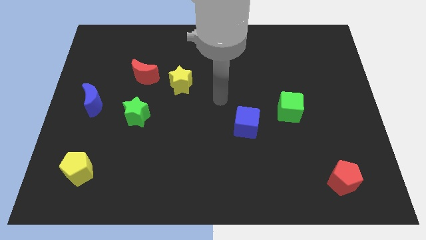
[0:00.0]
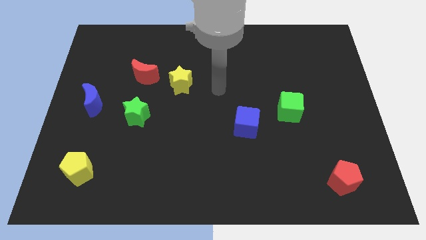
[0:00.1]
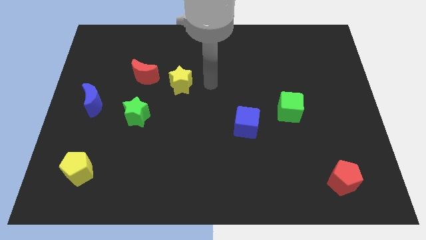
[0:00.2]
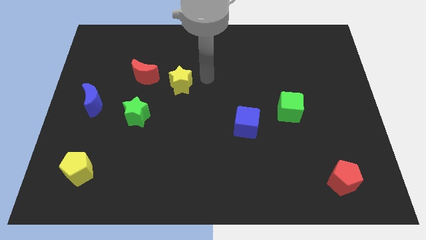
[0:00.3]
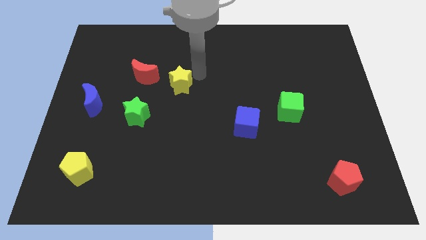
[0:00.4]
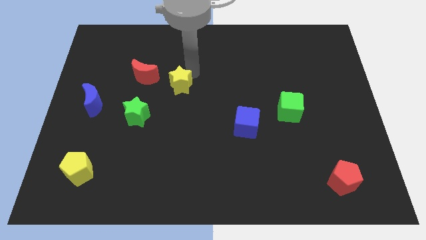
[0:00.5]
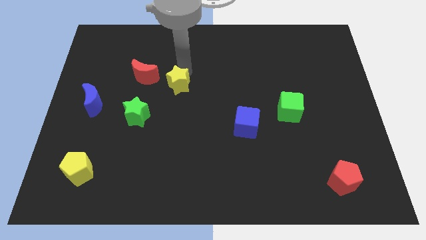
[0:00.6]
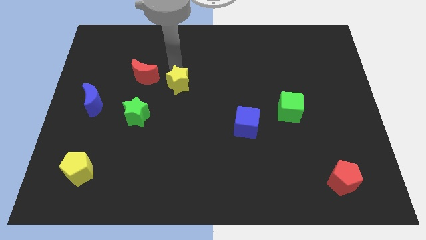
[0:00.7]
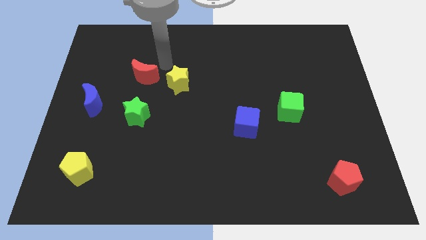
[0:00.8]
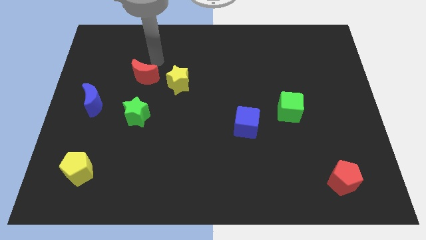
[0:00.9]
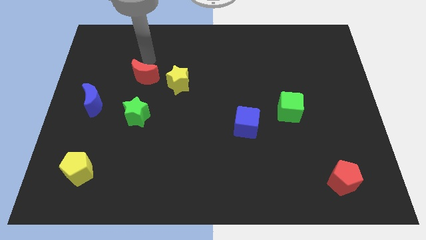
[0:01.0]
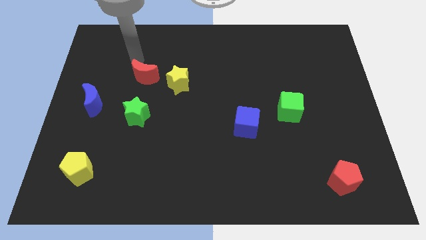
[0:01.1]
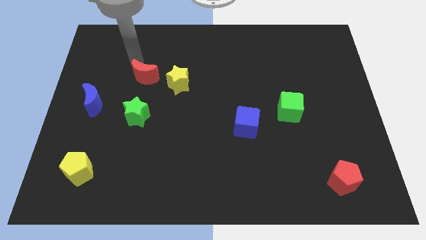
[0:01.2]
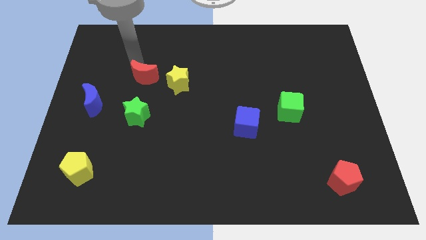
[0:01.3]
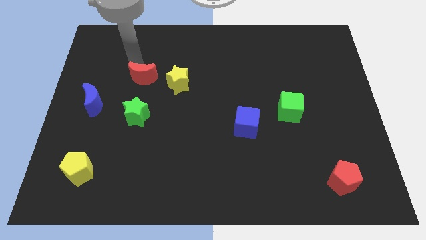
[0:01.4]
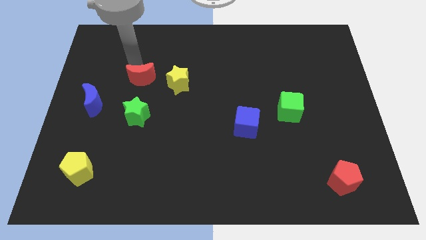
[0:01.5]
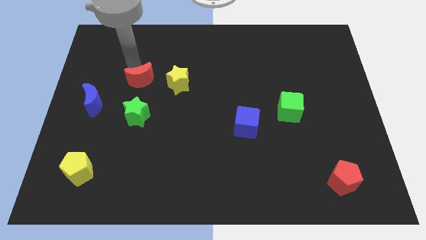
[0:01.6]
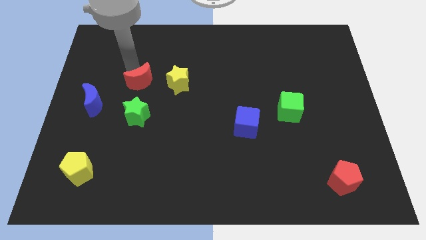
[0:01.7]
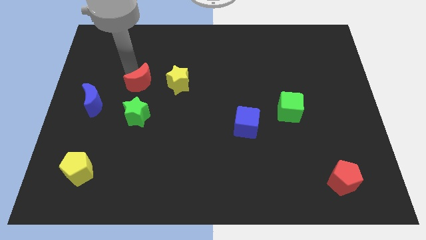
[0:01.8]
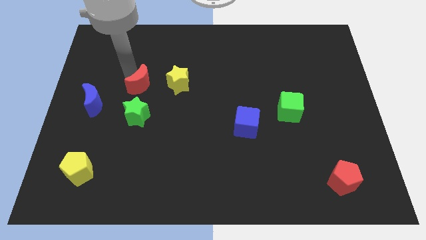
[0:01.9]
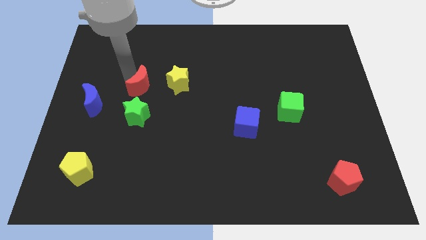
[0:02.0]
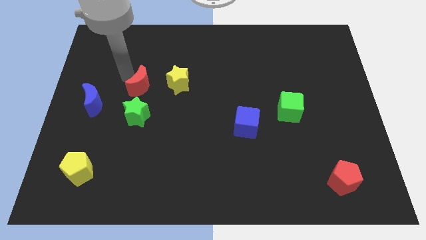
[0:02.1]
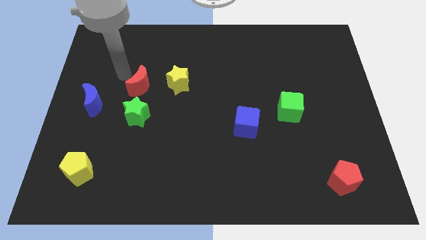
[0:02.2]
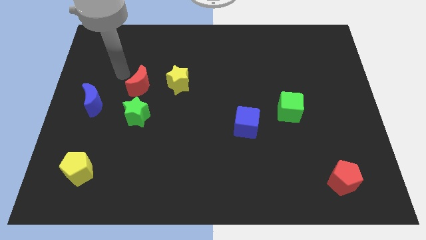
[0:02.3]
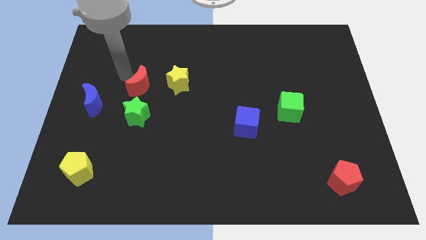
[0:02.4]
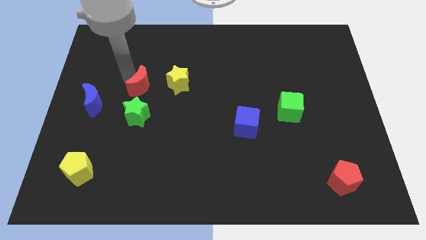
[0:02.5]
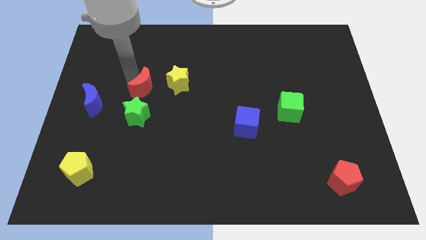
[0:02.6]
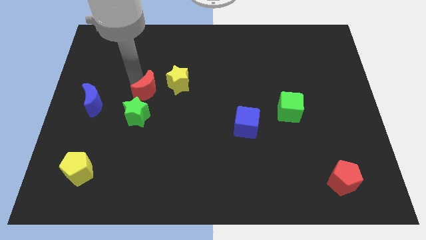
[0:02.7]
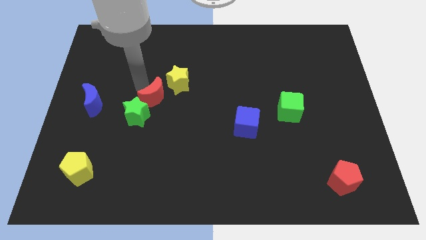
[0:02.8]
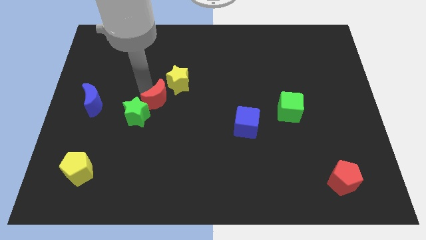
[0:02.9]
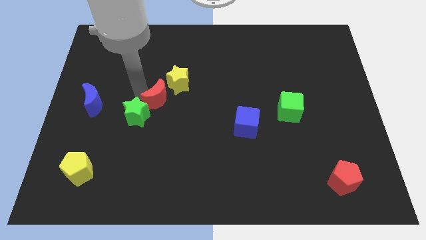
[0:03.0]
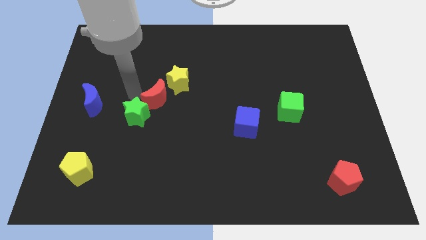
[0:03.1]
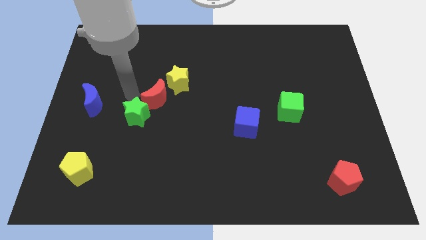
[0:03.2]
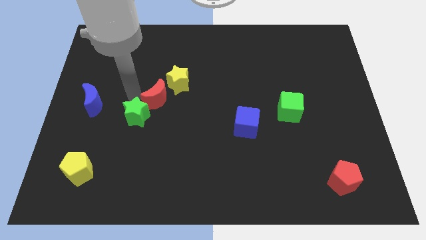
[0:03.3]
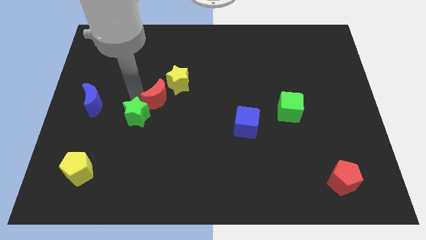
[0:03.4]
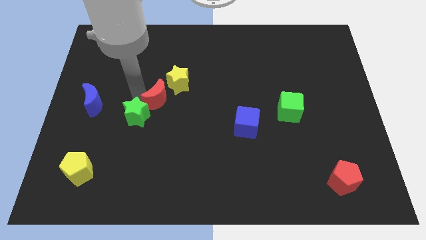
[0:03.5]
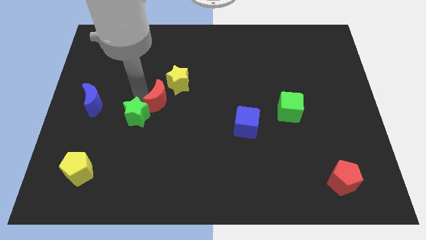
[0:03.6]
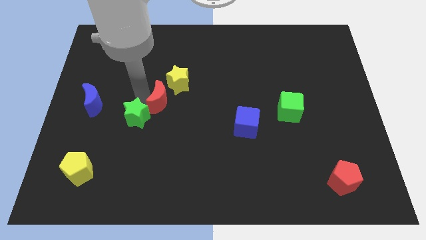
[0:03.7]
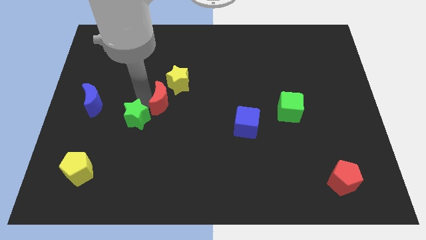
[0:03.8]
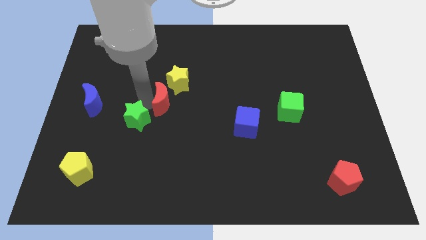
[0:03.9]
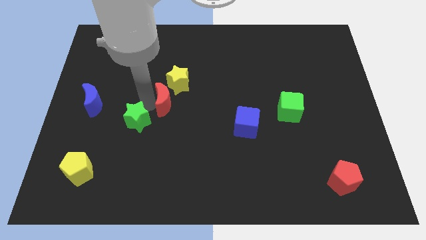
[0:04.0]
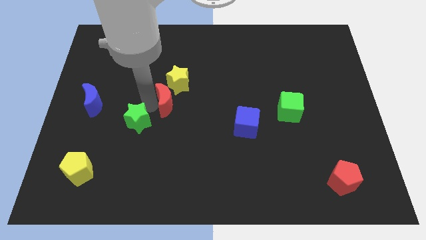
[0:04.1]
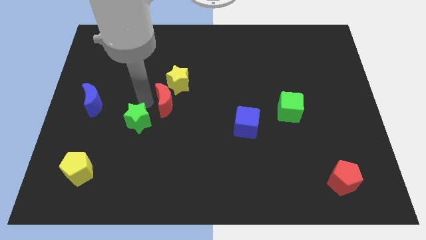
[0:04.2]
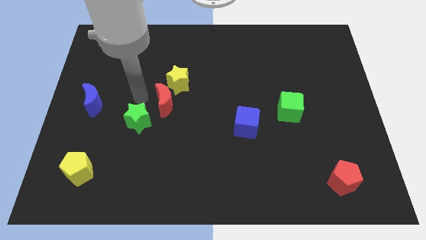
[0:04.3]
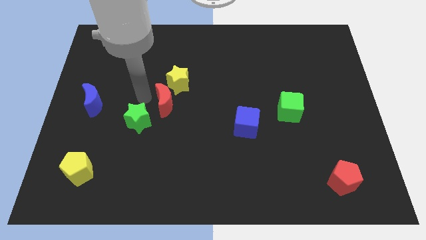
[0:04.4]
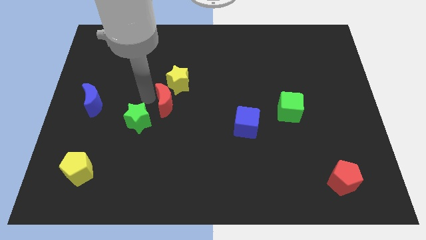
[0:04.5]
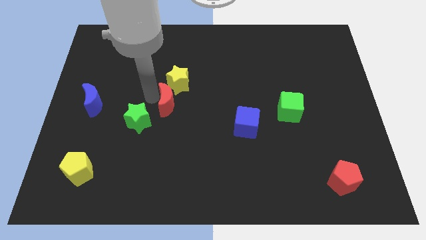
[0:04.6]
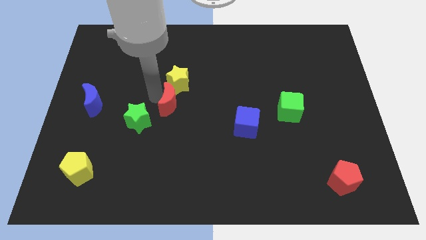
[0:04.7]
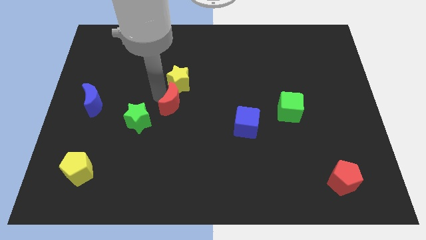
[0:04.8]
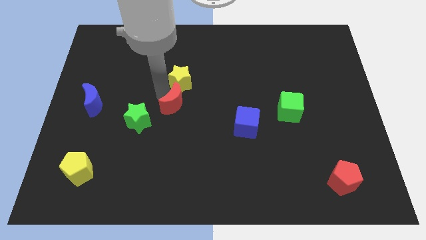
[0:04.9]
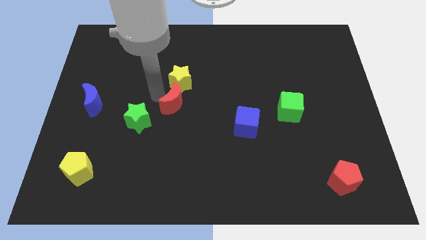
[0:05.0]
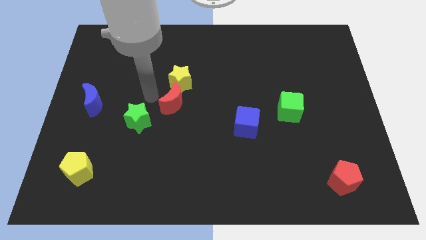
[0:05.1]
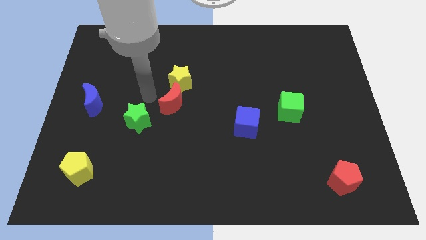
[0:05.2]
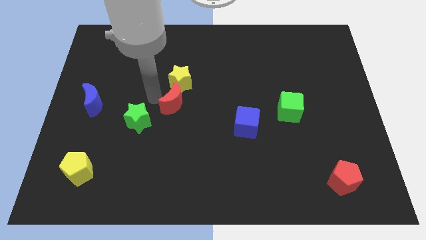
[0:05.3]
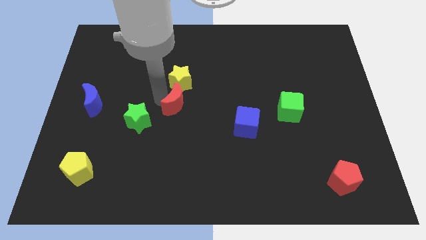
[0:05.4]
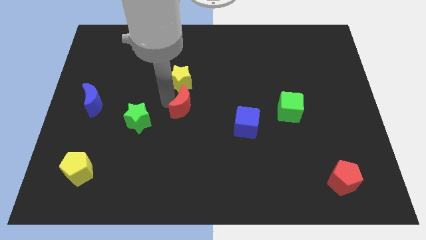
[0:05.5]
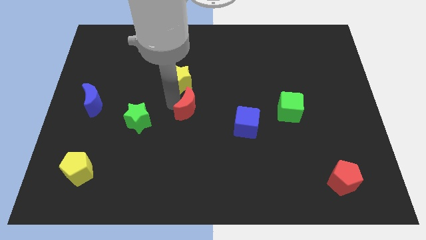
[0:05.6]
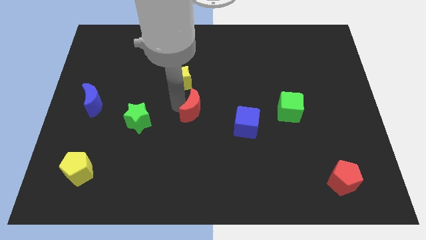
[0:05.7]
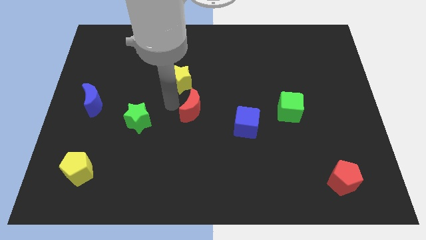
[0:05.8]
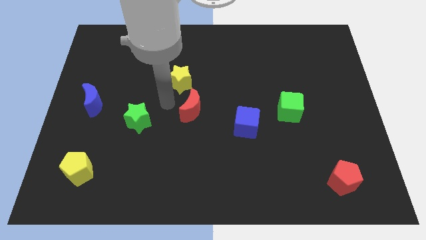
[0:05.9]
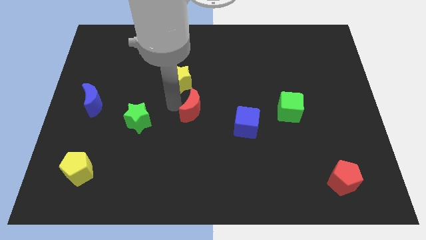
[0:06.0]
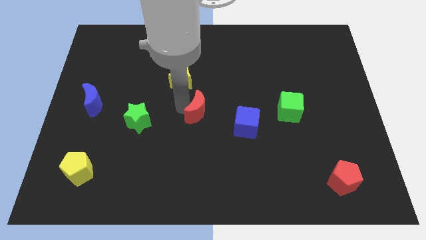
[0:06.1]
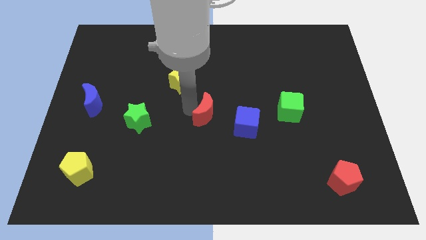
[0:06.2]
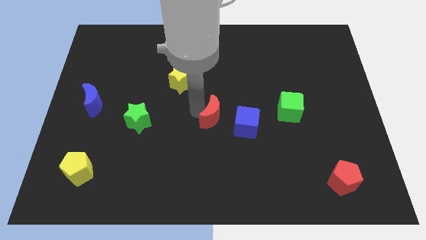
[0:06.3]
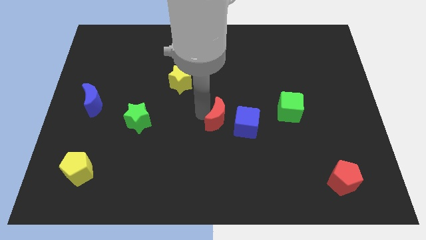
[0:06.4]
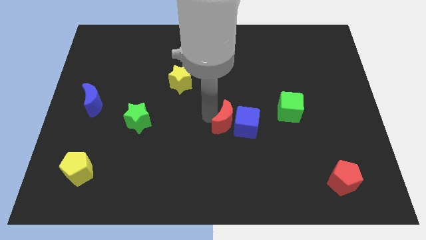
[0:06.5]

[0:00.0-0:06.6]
slide the red moon close to the blue cube

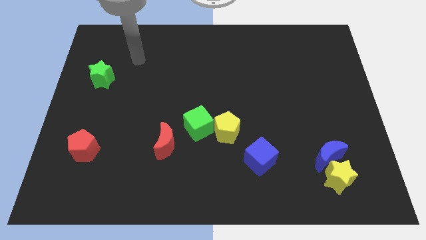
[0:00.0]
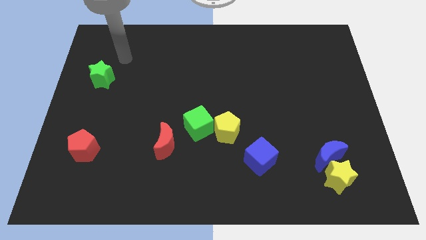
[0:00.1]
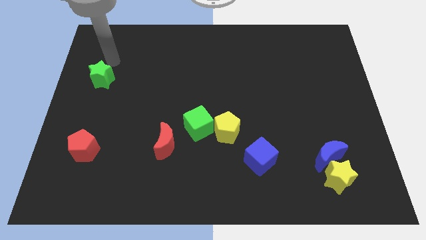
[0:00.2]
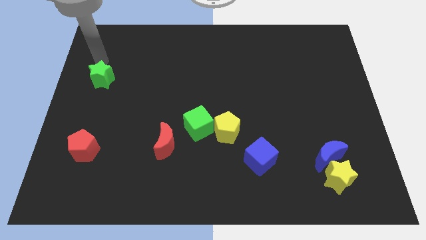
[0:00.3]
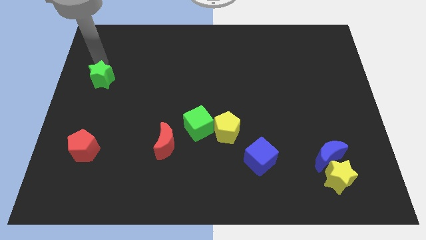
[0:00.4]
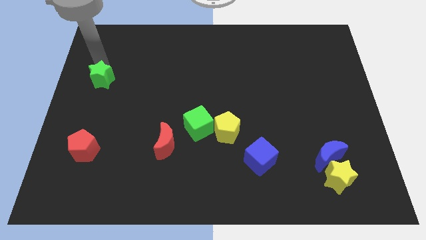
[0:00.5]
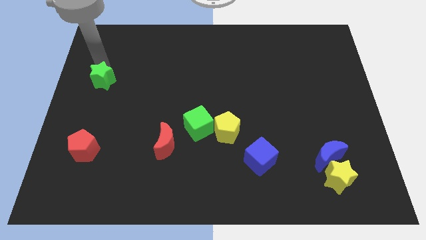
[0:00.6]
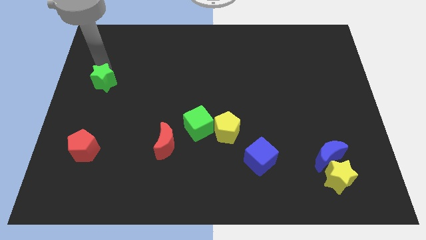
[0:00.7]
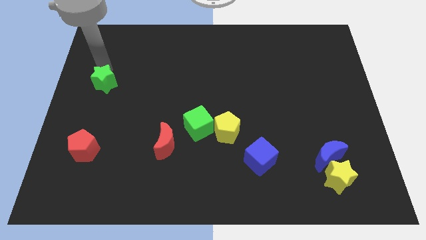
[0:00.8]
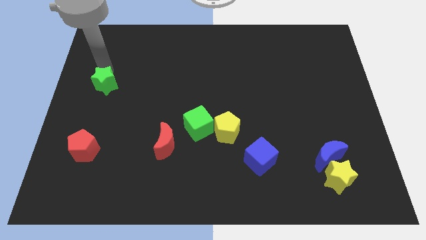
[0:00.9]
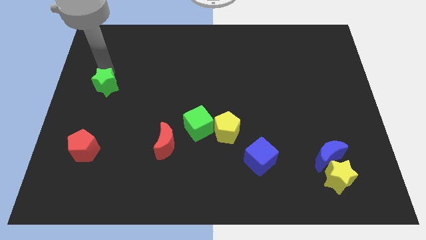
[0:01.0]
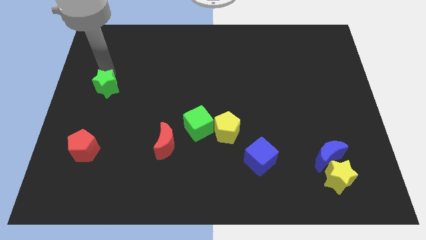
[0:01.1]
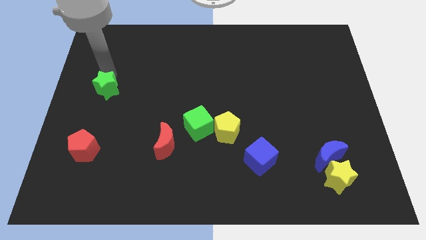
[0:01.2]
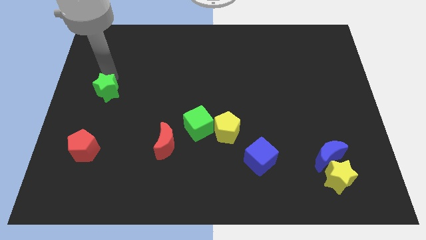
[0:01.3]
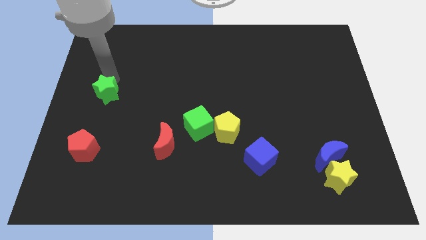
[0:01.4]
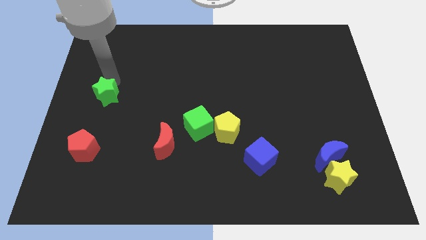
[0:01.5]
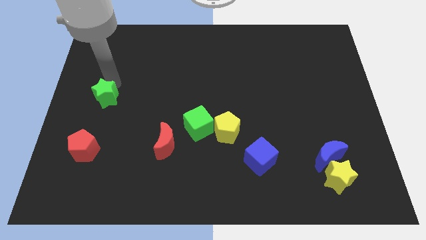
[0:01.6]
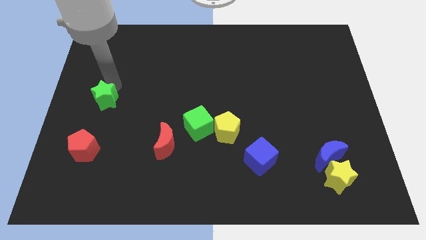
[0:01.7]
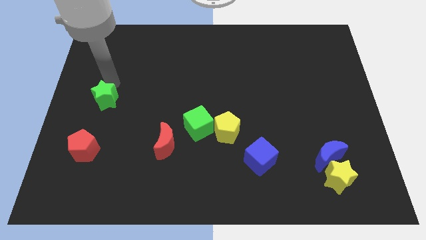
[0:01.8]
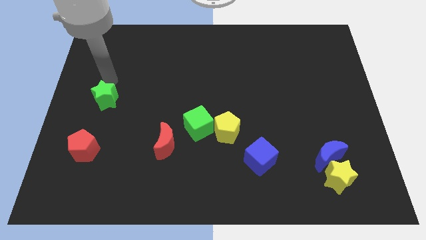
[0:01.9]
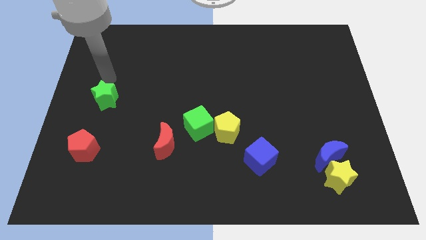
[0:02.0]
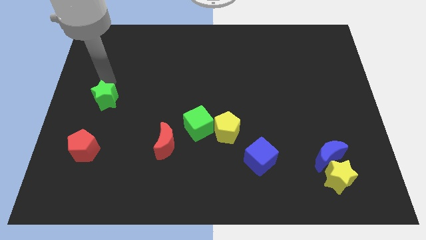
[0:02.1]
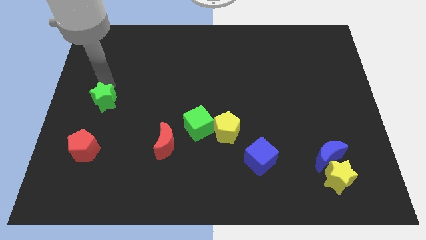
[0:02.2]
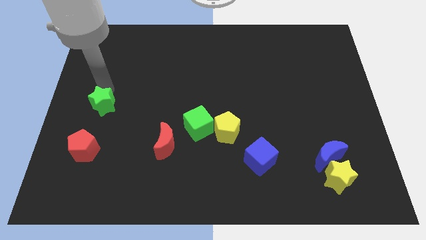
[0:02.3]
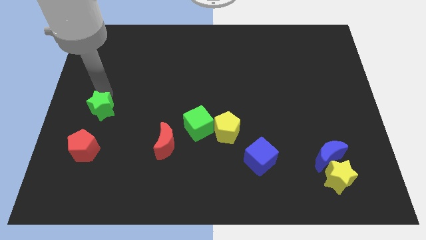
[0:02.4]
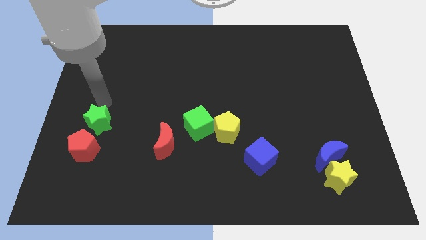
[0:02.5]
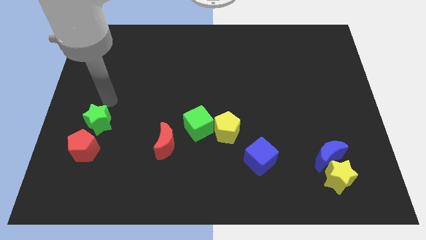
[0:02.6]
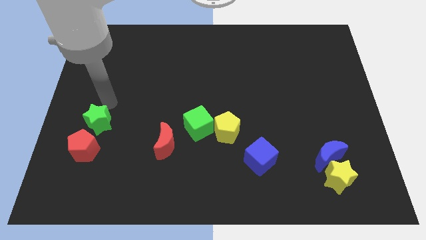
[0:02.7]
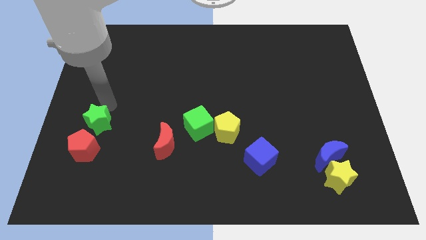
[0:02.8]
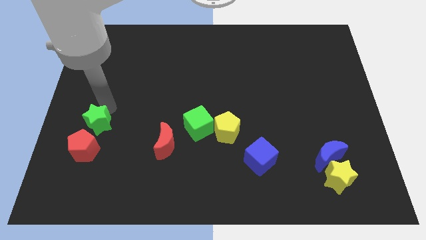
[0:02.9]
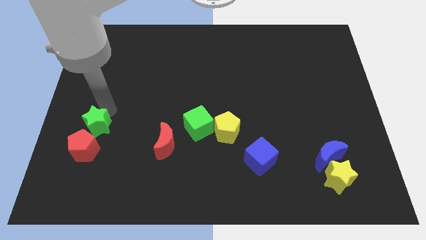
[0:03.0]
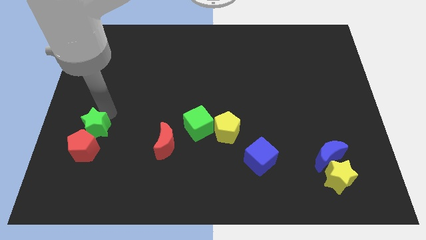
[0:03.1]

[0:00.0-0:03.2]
push the green star next to the red pentagon
